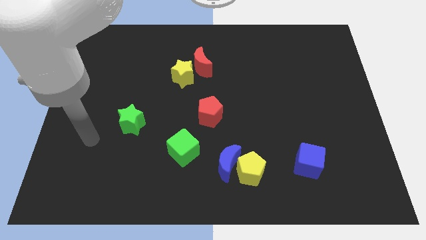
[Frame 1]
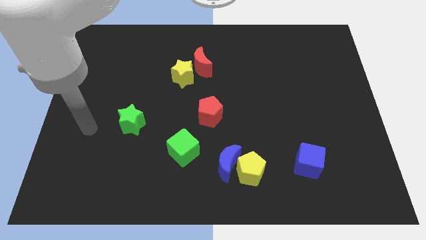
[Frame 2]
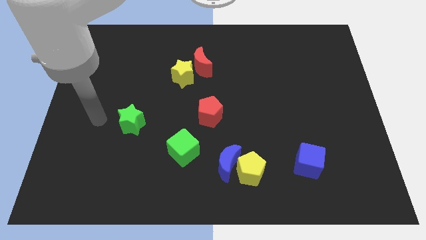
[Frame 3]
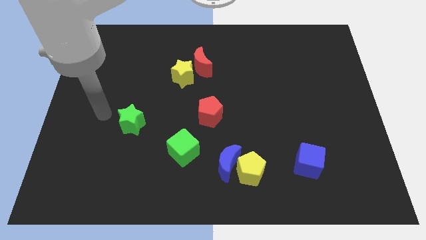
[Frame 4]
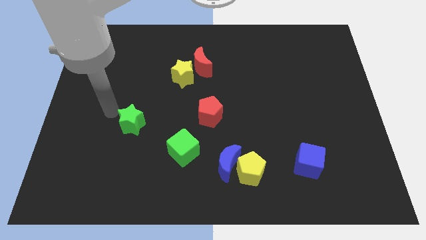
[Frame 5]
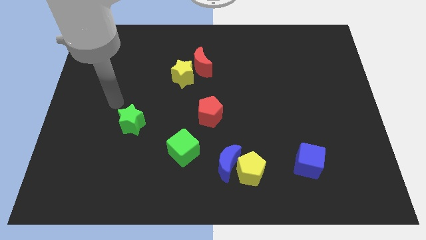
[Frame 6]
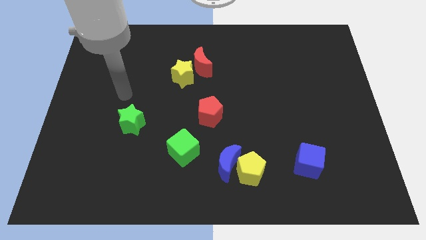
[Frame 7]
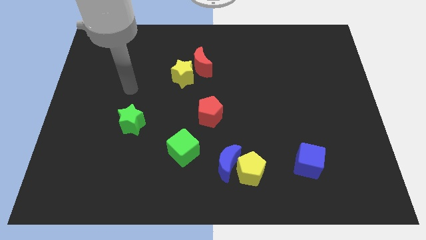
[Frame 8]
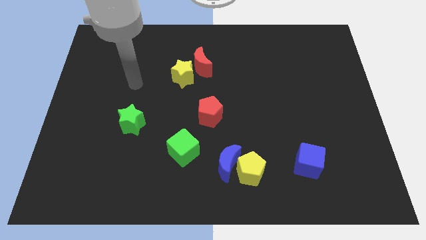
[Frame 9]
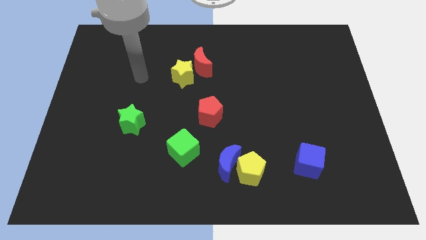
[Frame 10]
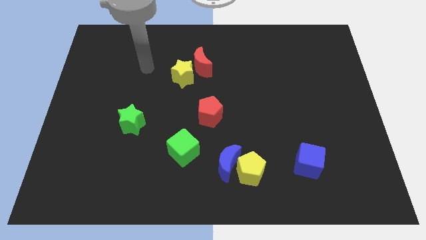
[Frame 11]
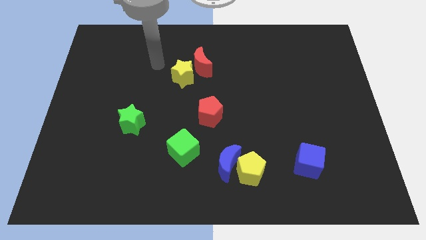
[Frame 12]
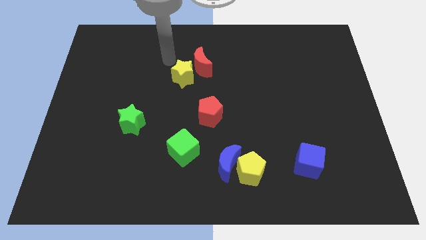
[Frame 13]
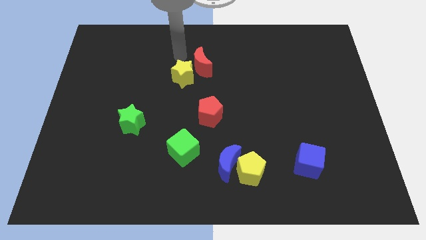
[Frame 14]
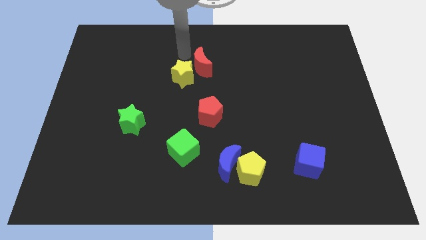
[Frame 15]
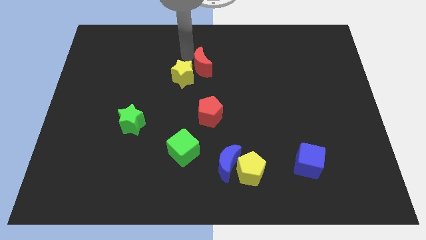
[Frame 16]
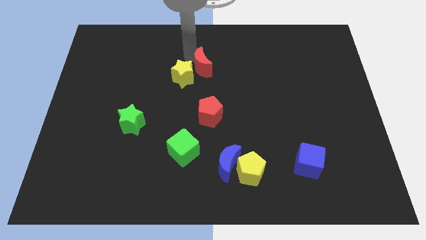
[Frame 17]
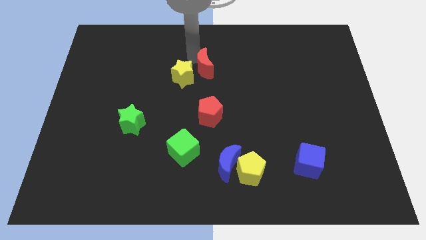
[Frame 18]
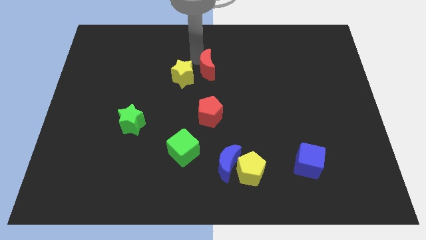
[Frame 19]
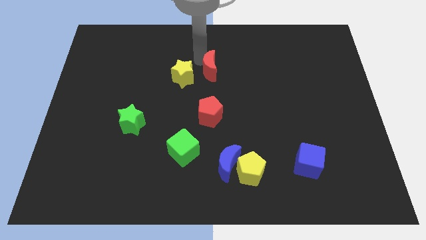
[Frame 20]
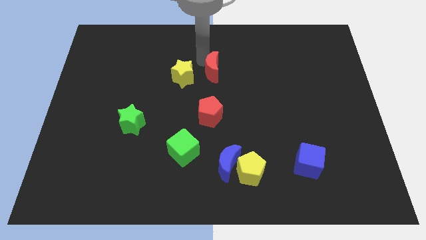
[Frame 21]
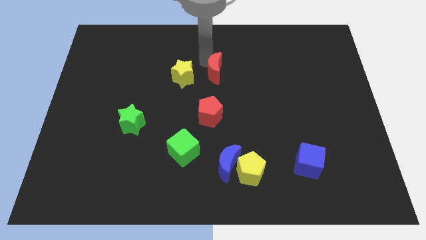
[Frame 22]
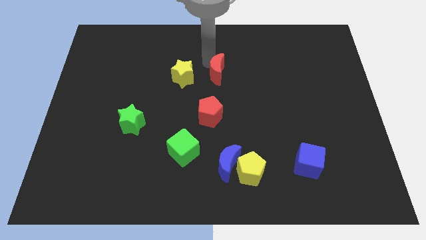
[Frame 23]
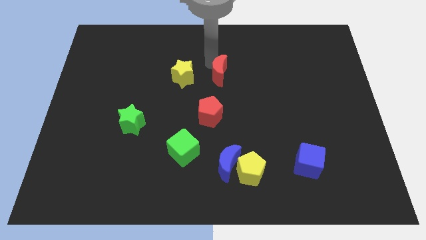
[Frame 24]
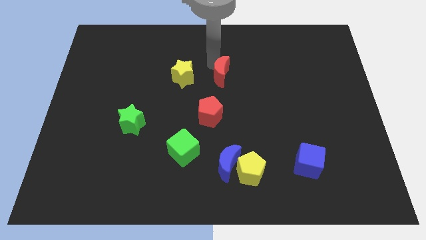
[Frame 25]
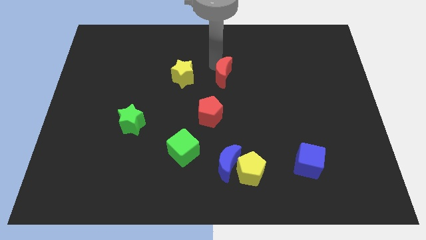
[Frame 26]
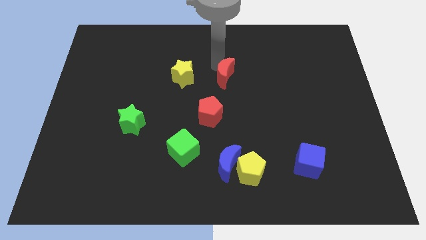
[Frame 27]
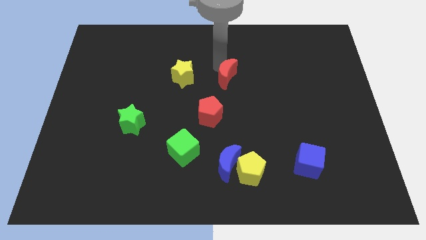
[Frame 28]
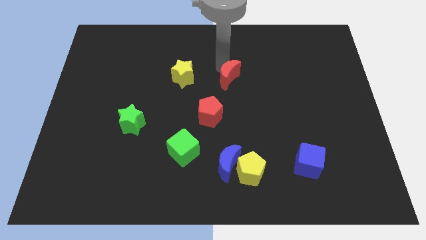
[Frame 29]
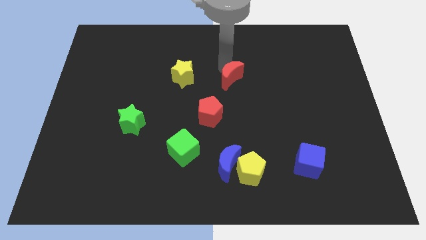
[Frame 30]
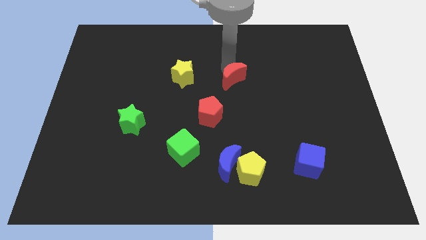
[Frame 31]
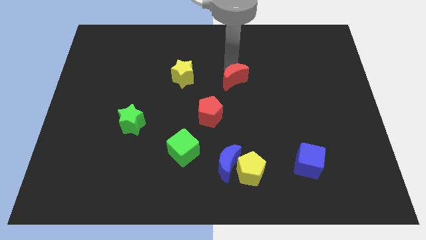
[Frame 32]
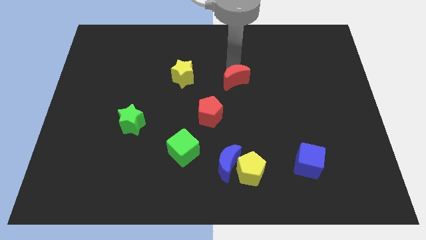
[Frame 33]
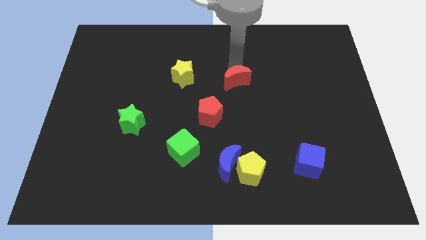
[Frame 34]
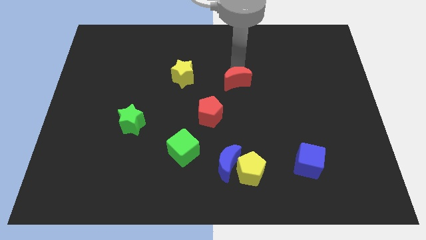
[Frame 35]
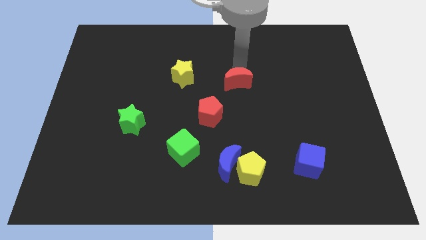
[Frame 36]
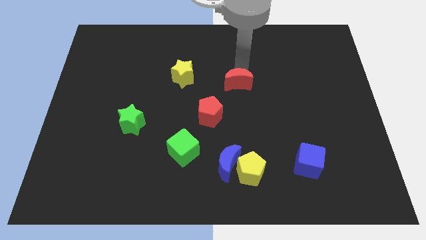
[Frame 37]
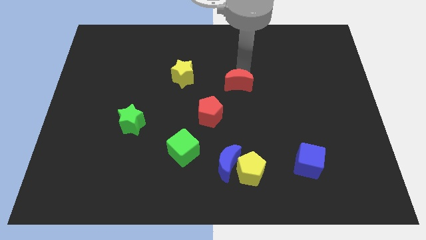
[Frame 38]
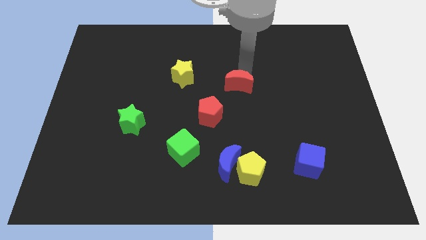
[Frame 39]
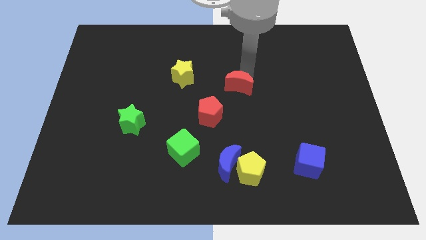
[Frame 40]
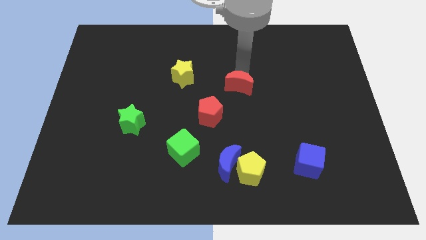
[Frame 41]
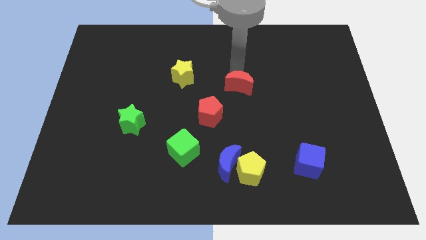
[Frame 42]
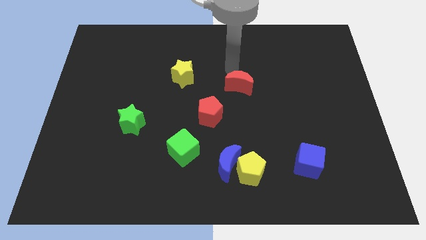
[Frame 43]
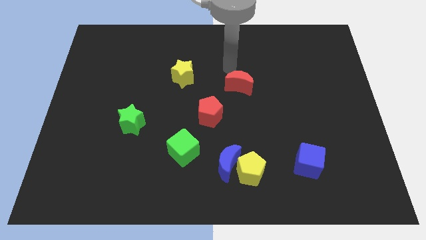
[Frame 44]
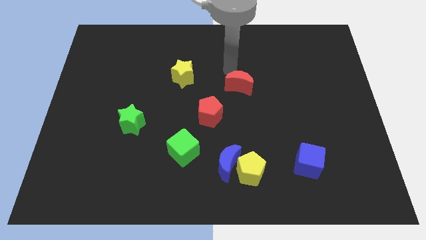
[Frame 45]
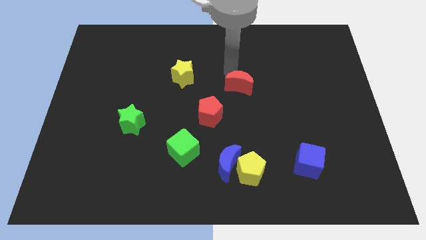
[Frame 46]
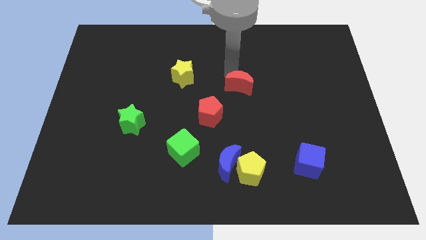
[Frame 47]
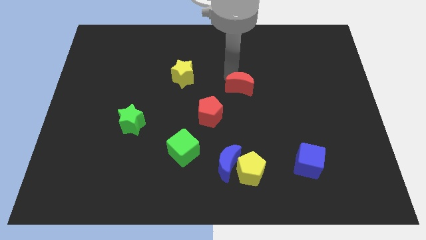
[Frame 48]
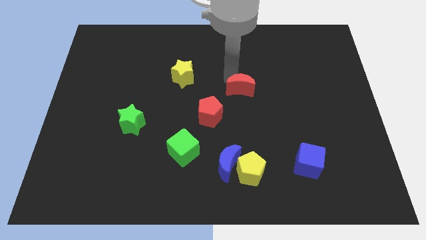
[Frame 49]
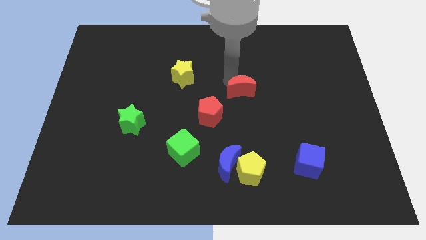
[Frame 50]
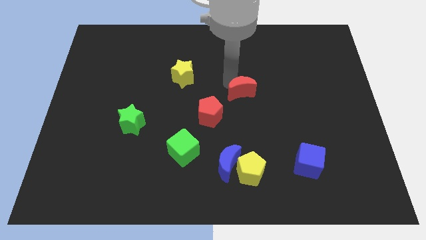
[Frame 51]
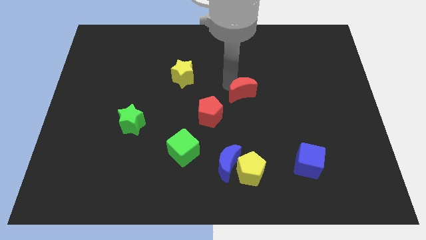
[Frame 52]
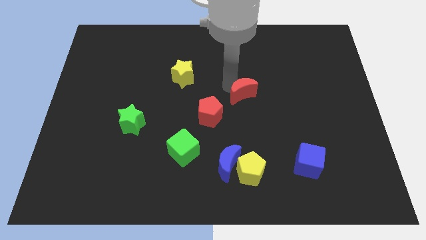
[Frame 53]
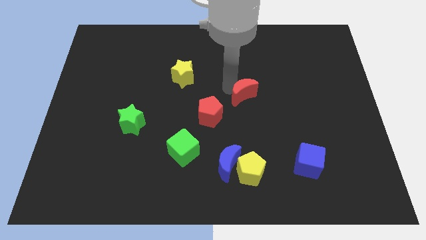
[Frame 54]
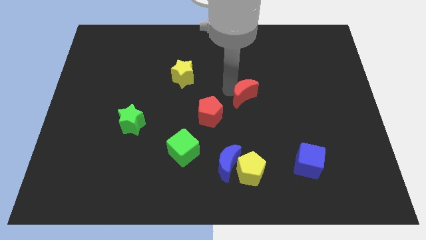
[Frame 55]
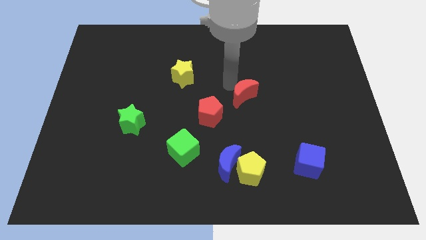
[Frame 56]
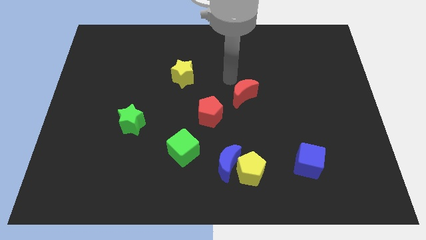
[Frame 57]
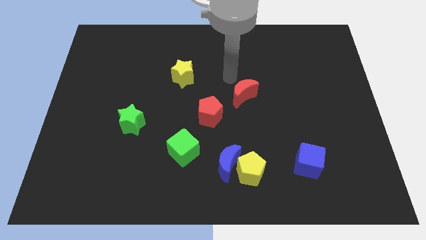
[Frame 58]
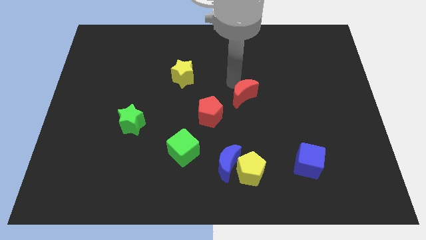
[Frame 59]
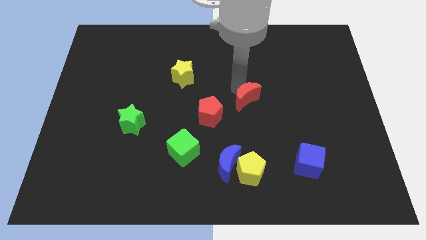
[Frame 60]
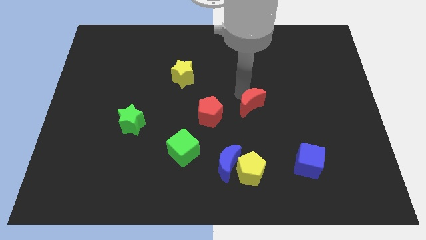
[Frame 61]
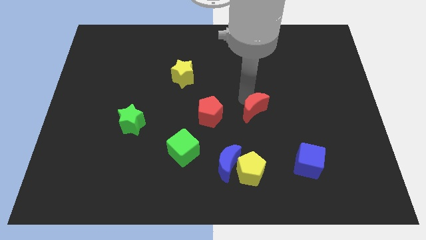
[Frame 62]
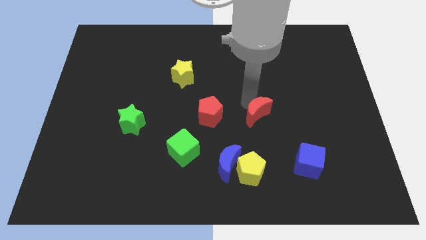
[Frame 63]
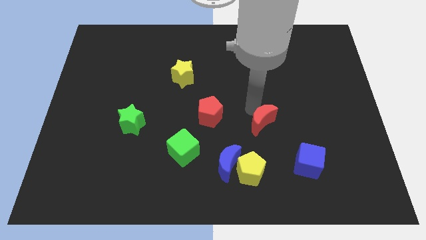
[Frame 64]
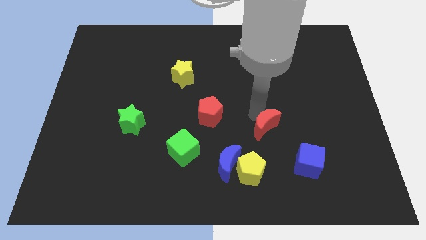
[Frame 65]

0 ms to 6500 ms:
slide the red moon to the top left of the blue cube
